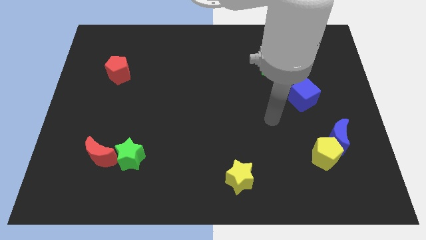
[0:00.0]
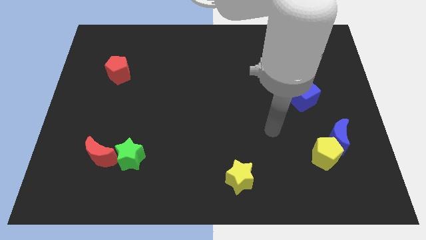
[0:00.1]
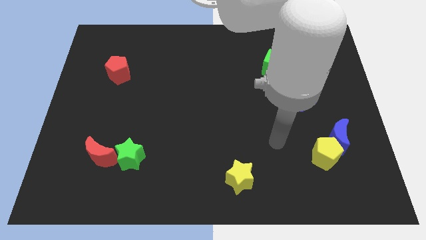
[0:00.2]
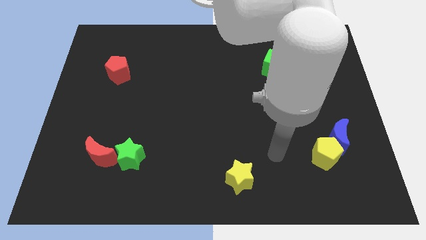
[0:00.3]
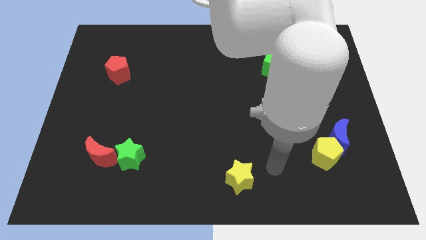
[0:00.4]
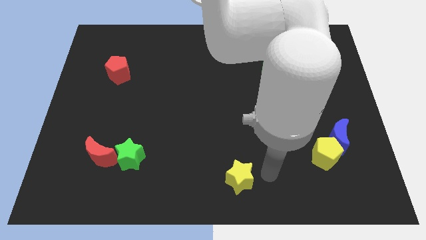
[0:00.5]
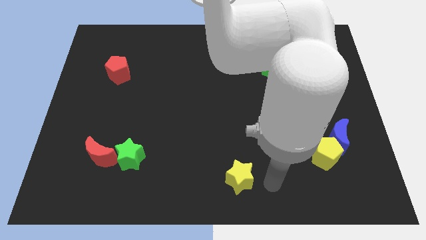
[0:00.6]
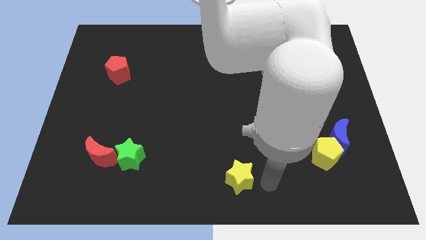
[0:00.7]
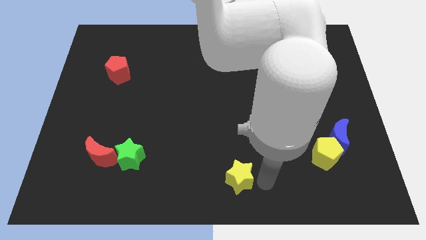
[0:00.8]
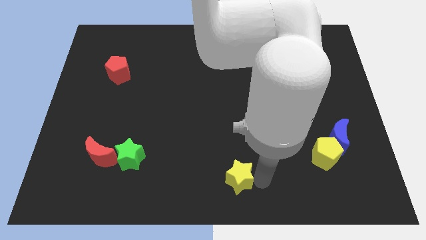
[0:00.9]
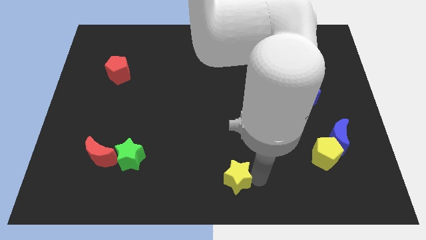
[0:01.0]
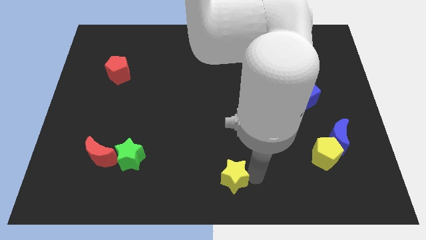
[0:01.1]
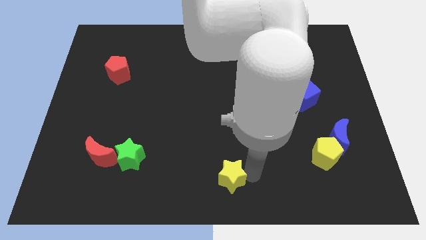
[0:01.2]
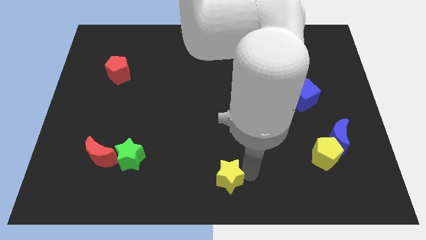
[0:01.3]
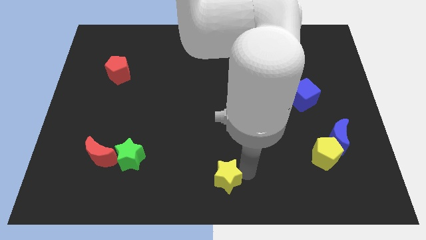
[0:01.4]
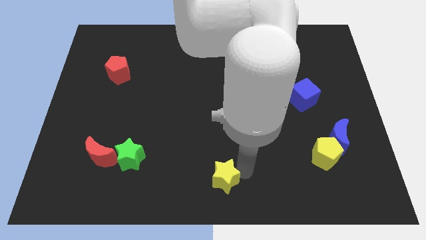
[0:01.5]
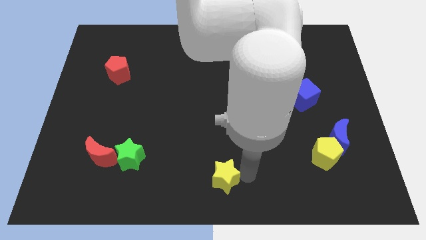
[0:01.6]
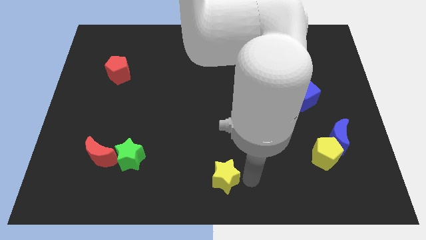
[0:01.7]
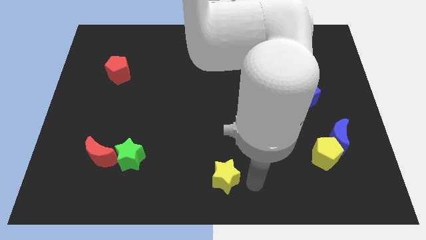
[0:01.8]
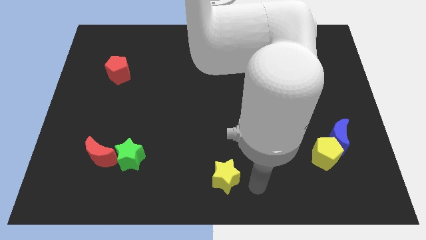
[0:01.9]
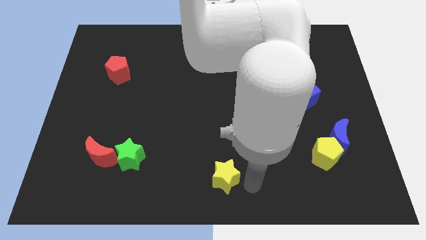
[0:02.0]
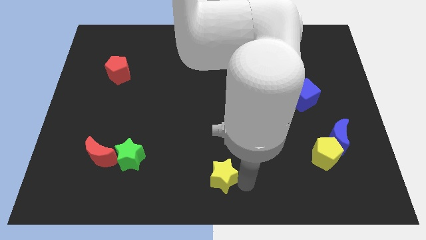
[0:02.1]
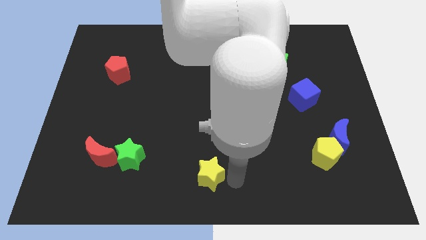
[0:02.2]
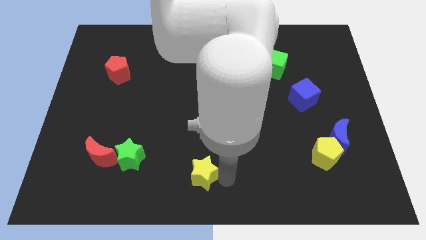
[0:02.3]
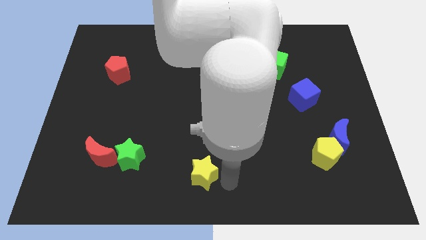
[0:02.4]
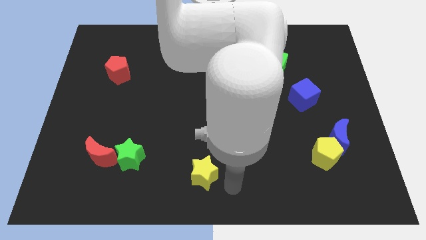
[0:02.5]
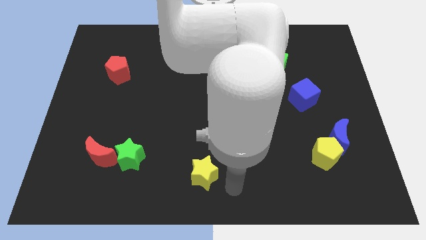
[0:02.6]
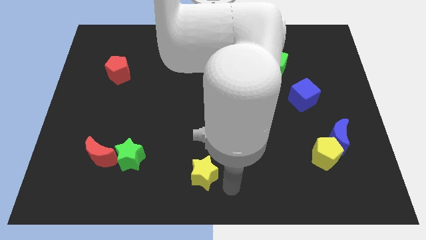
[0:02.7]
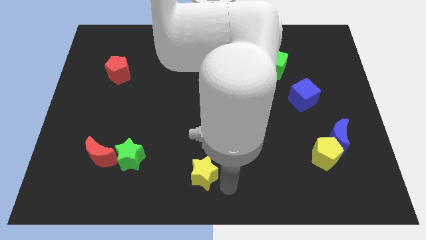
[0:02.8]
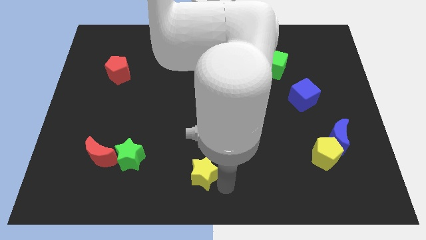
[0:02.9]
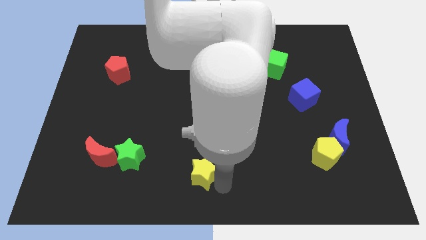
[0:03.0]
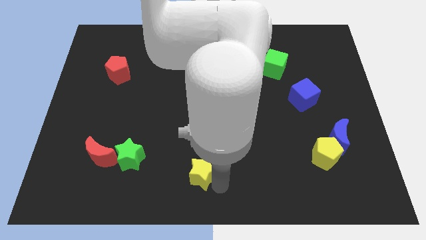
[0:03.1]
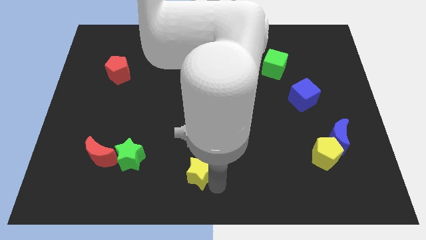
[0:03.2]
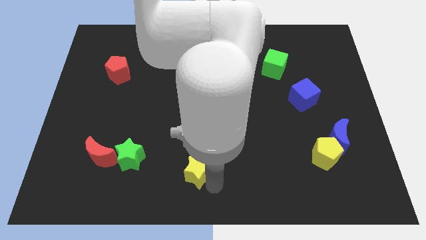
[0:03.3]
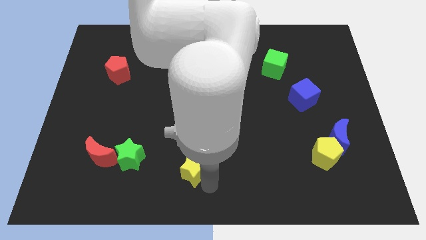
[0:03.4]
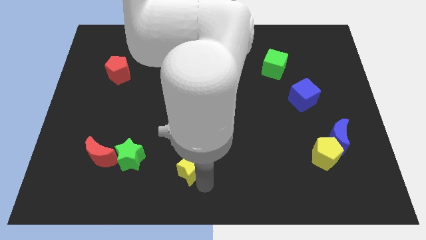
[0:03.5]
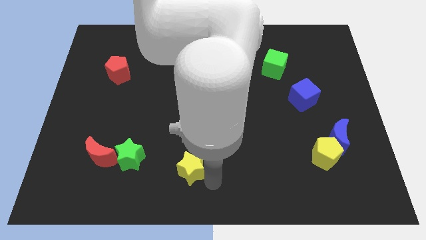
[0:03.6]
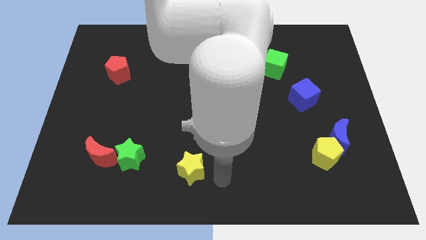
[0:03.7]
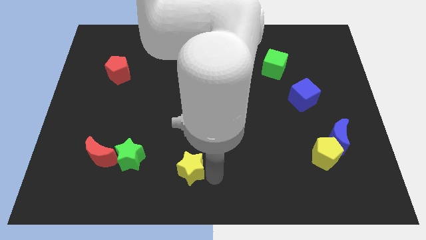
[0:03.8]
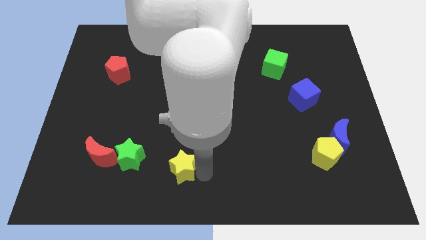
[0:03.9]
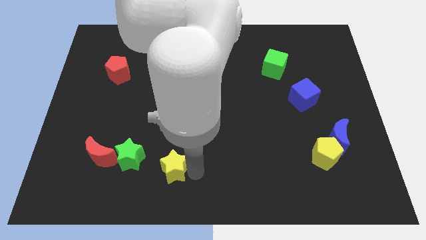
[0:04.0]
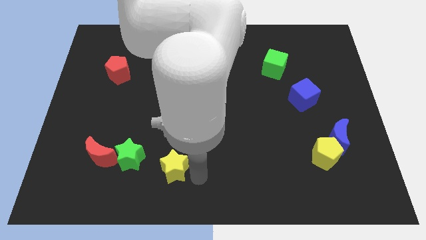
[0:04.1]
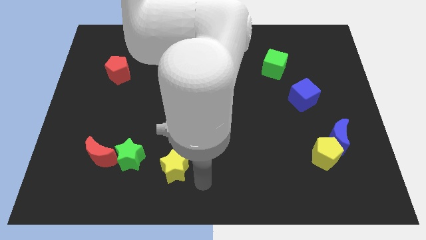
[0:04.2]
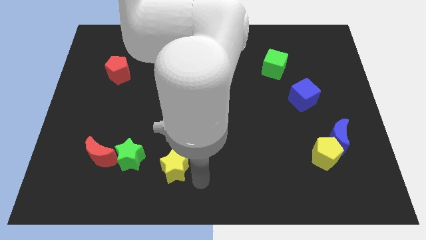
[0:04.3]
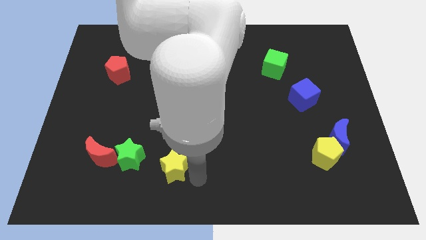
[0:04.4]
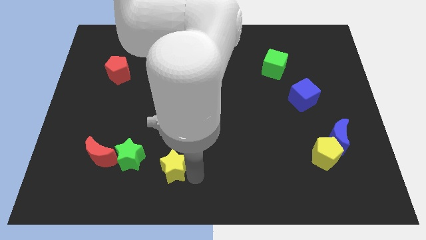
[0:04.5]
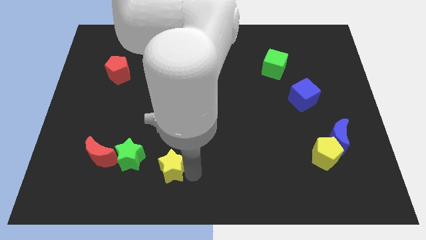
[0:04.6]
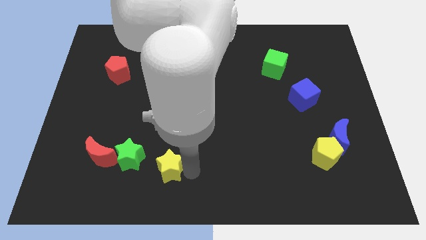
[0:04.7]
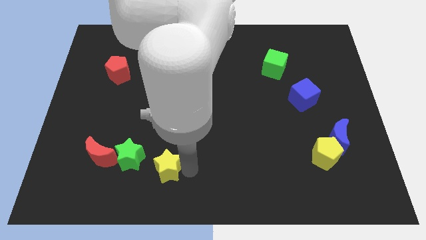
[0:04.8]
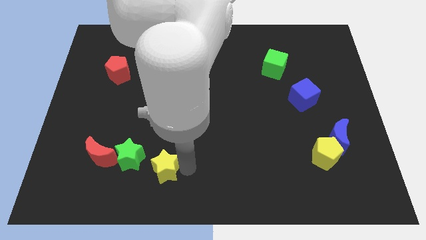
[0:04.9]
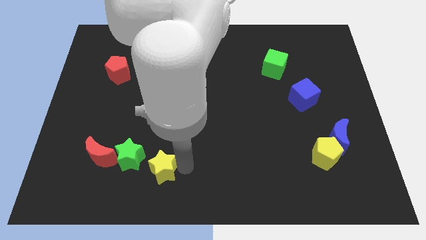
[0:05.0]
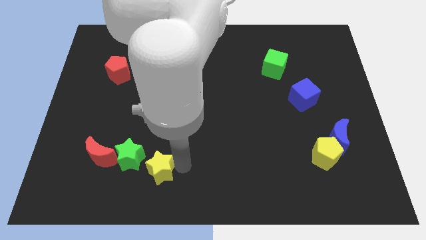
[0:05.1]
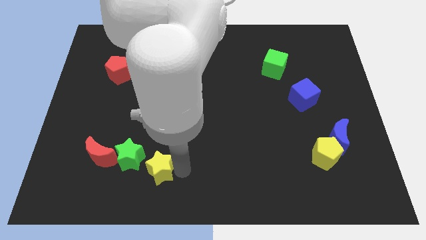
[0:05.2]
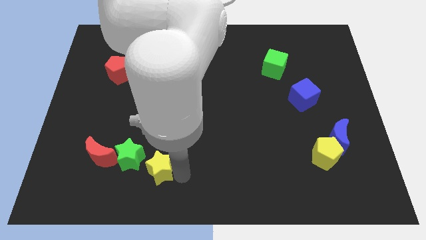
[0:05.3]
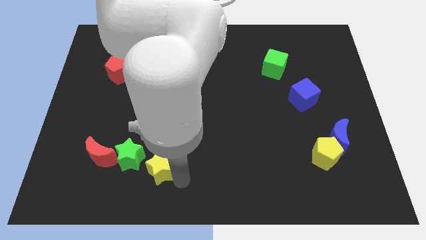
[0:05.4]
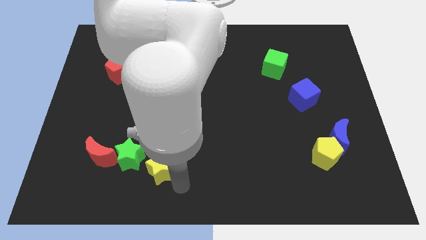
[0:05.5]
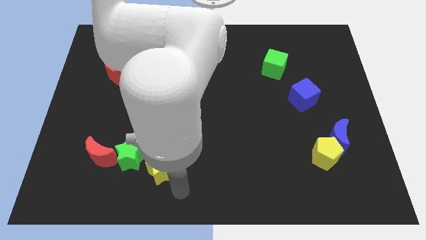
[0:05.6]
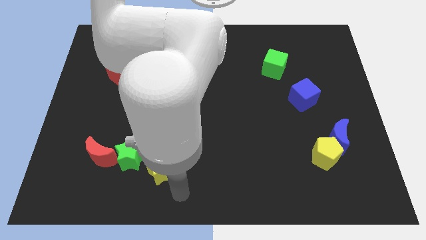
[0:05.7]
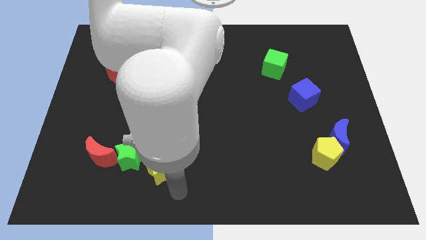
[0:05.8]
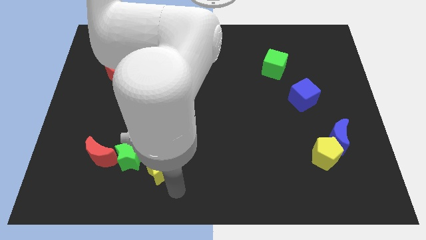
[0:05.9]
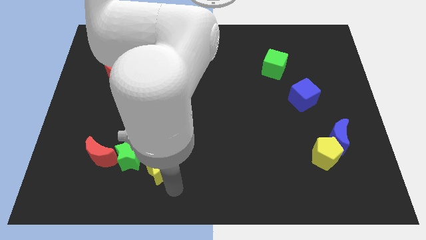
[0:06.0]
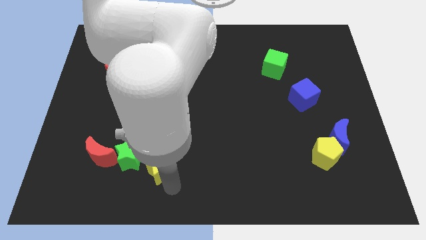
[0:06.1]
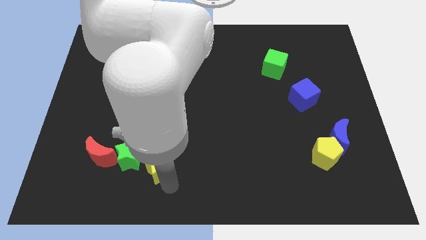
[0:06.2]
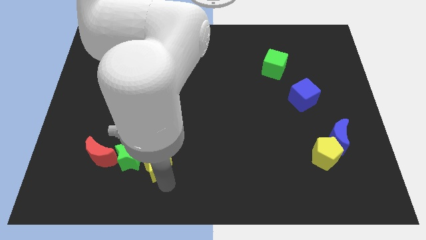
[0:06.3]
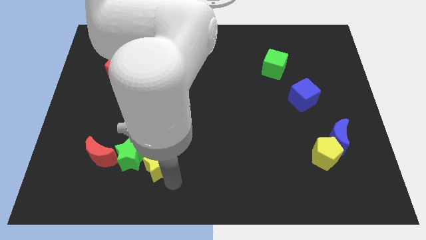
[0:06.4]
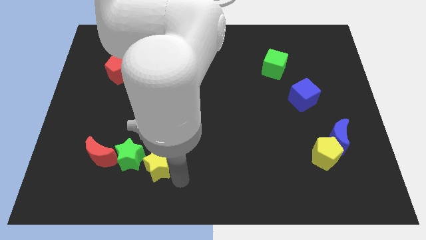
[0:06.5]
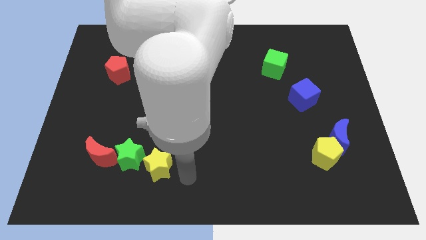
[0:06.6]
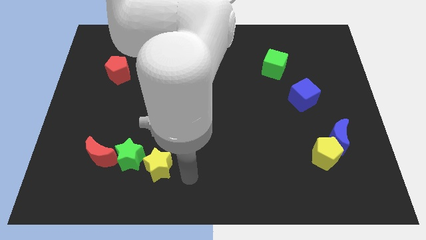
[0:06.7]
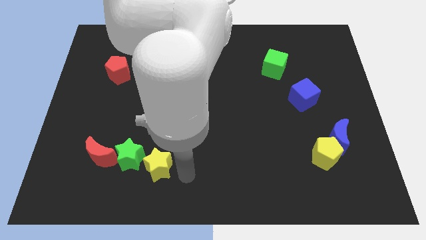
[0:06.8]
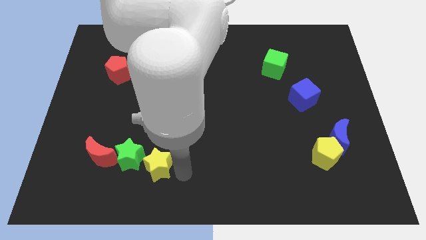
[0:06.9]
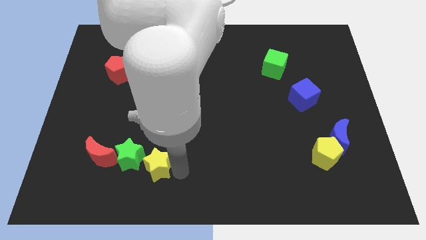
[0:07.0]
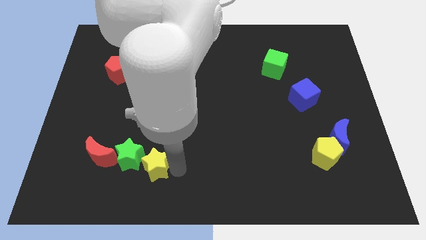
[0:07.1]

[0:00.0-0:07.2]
slide the yellow star close to the green star
